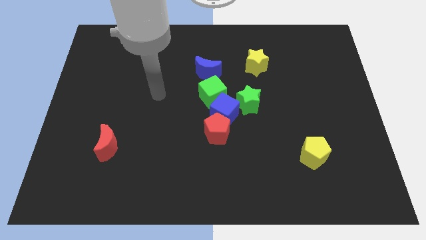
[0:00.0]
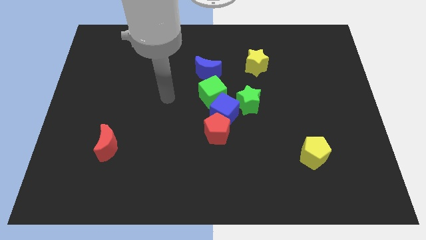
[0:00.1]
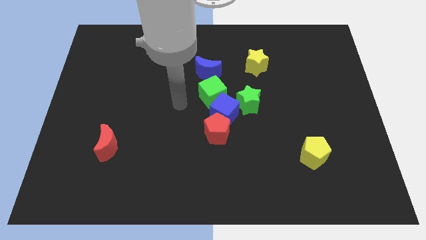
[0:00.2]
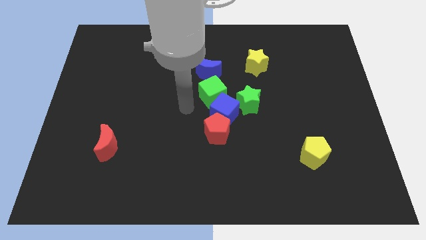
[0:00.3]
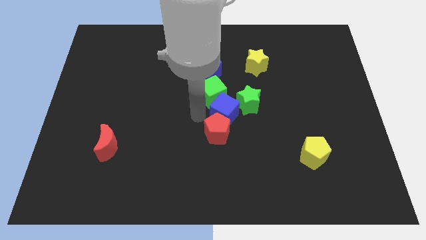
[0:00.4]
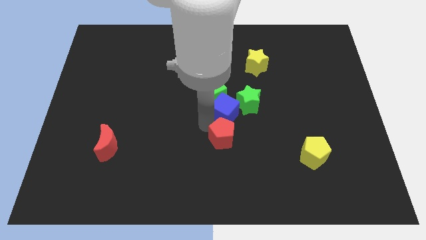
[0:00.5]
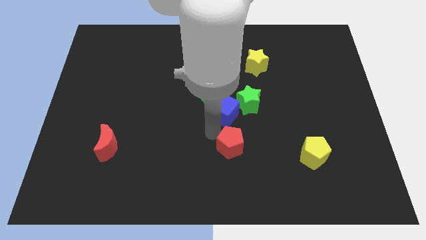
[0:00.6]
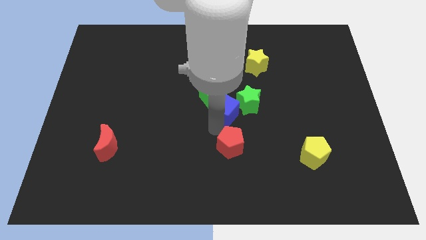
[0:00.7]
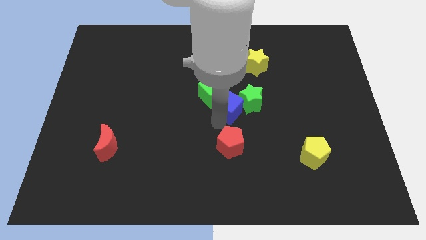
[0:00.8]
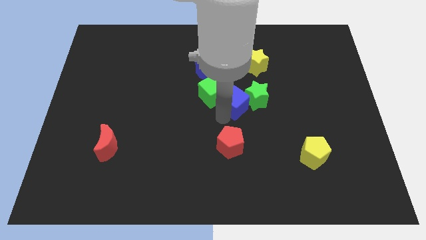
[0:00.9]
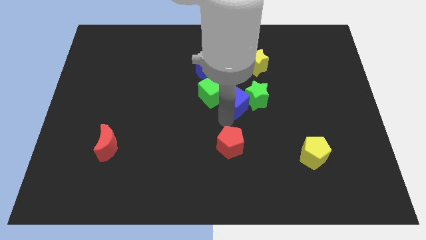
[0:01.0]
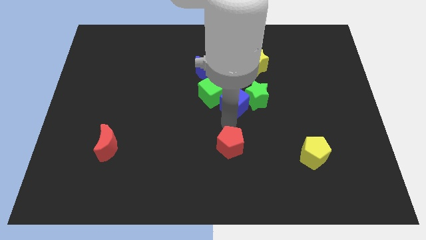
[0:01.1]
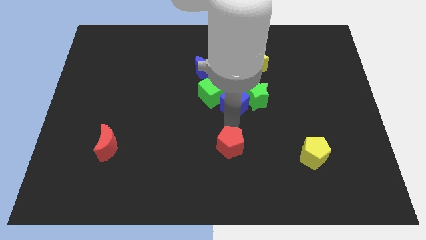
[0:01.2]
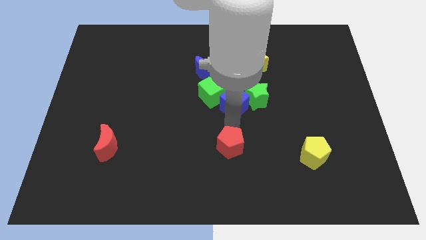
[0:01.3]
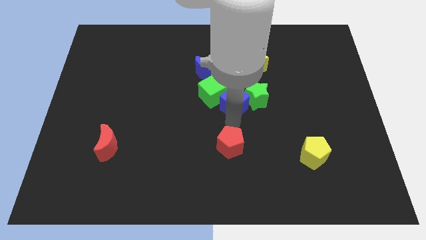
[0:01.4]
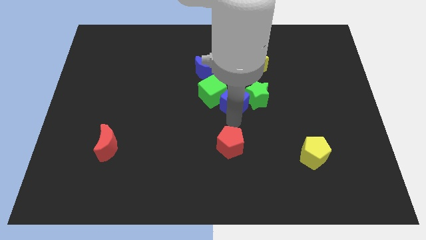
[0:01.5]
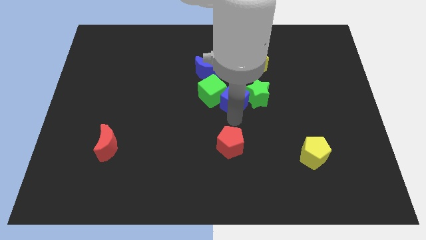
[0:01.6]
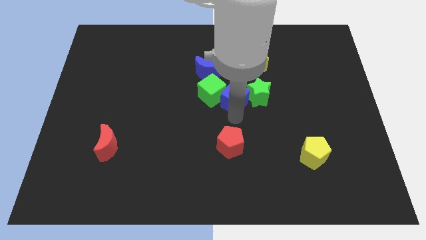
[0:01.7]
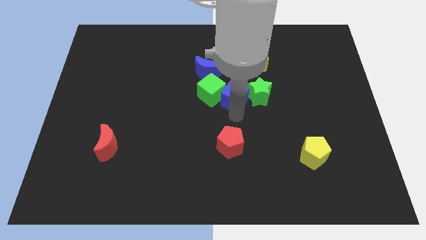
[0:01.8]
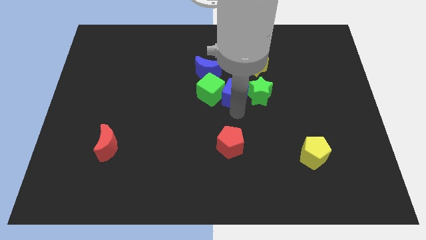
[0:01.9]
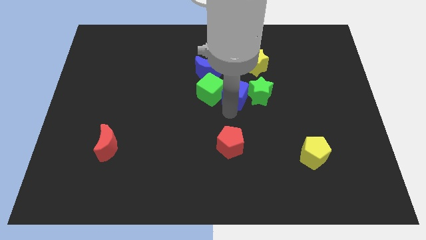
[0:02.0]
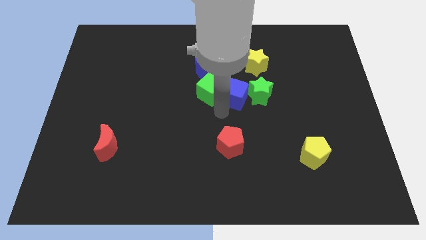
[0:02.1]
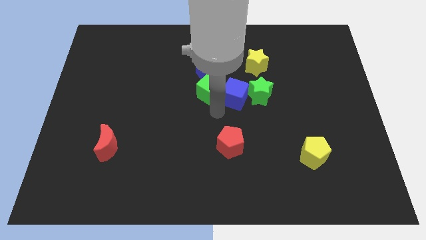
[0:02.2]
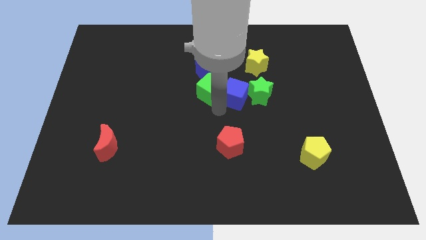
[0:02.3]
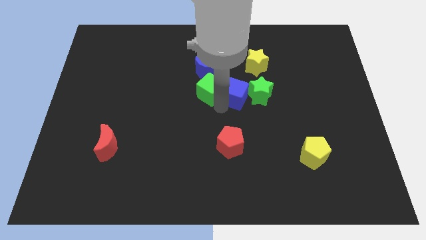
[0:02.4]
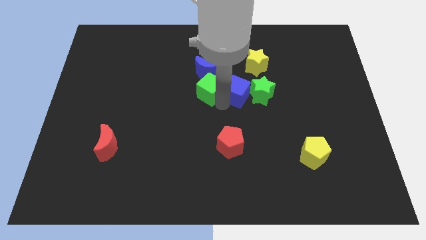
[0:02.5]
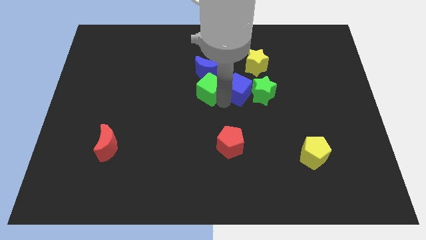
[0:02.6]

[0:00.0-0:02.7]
push the blue cube up and to the right diagonally somewhat

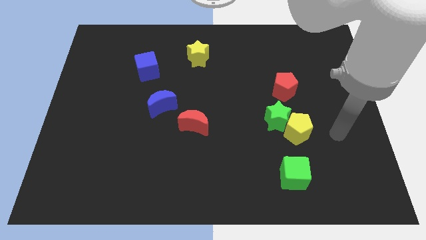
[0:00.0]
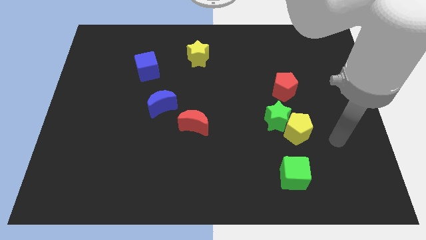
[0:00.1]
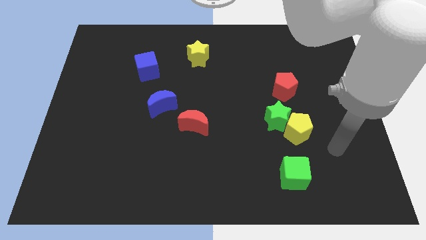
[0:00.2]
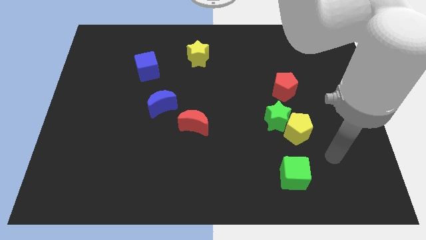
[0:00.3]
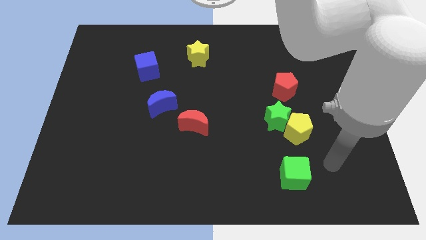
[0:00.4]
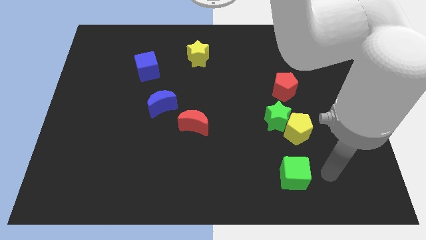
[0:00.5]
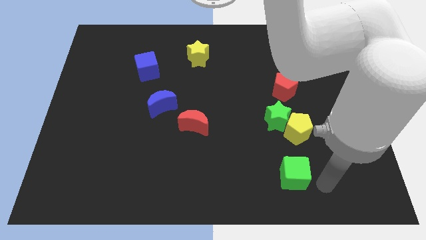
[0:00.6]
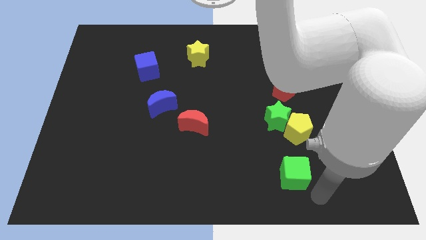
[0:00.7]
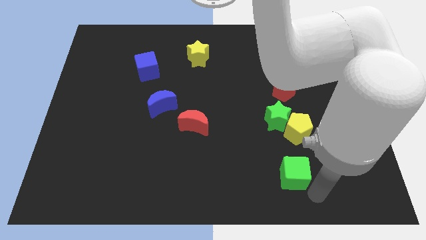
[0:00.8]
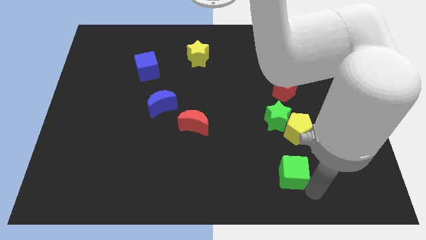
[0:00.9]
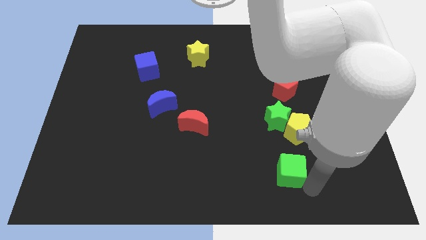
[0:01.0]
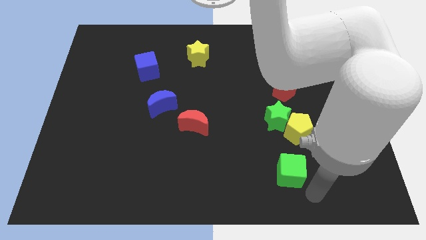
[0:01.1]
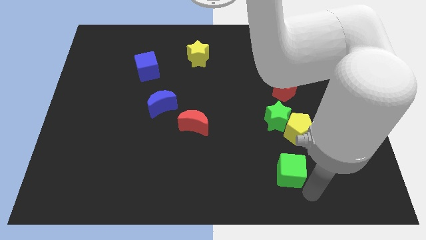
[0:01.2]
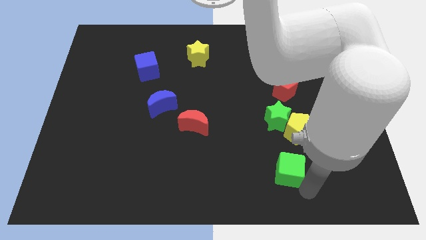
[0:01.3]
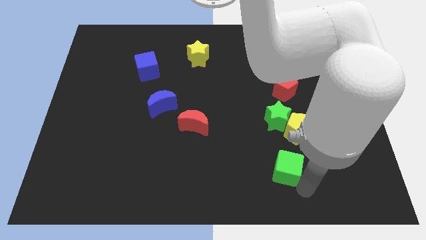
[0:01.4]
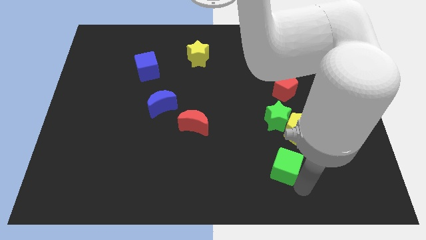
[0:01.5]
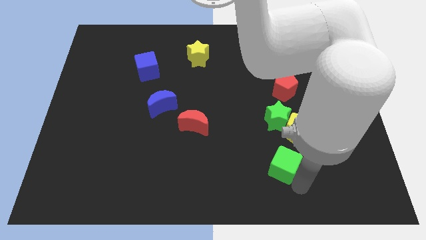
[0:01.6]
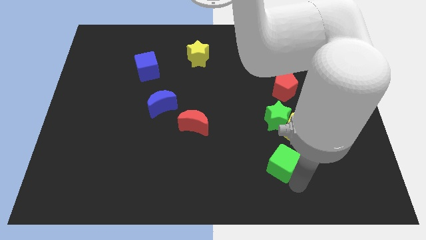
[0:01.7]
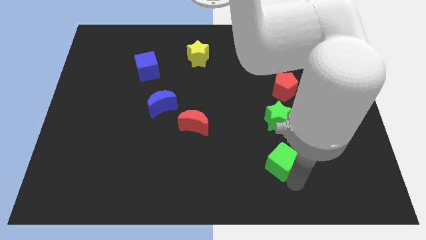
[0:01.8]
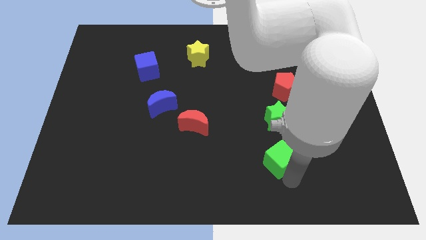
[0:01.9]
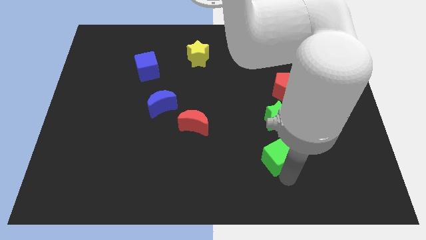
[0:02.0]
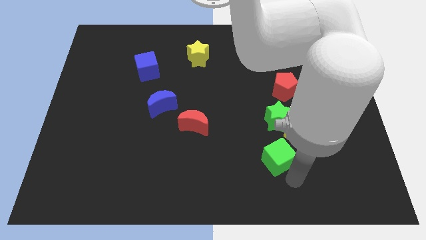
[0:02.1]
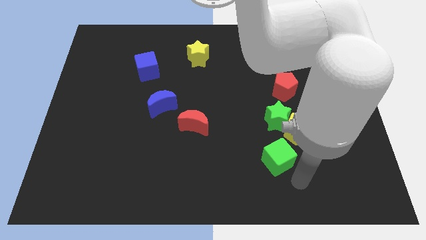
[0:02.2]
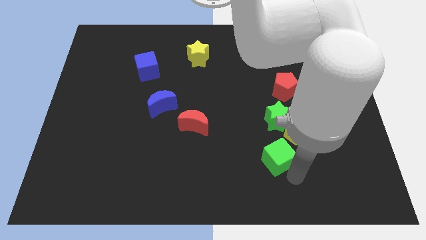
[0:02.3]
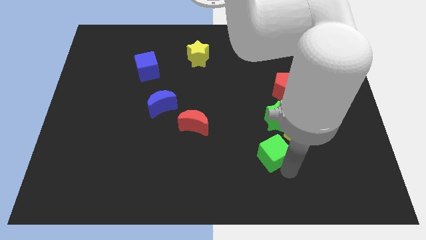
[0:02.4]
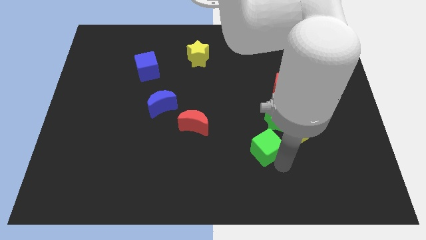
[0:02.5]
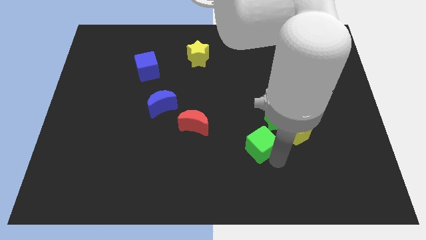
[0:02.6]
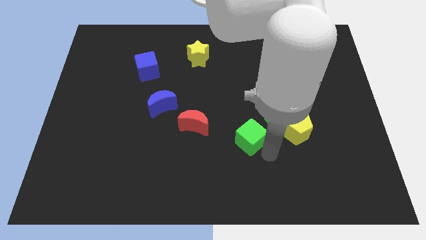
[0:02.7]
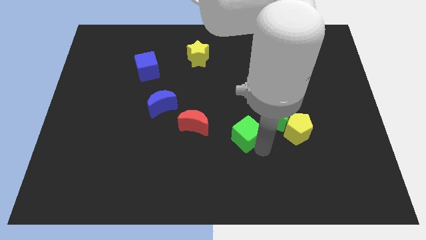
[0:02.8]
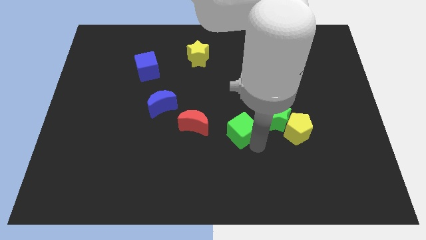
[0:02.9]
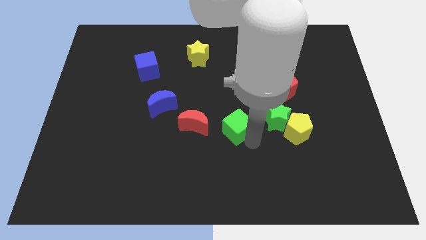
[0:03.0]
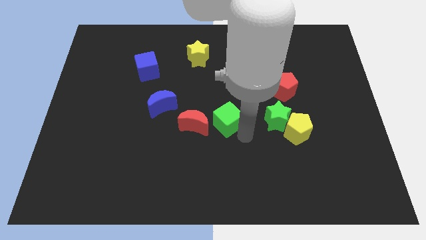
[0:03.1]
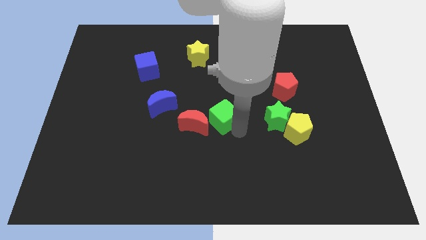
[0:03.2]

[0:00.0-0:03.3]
slide the green cube up and to the left diagonally

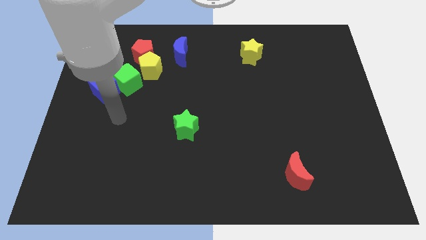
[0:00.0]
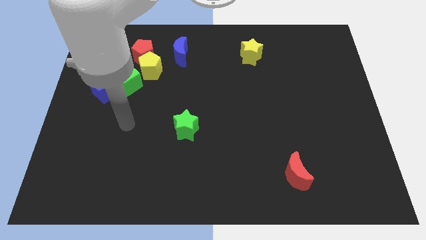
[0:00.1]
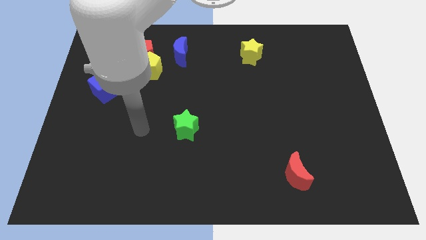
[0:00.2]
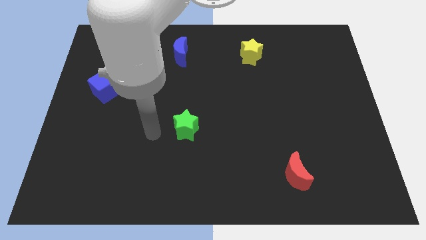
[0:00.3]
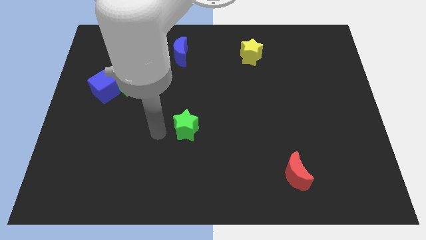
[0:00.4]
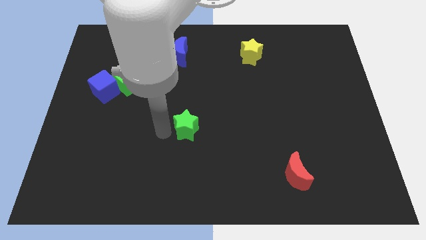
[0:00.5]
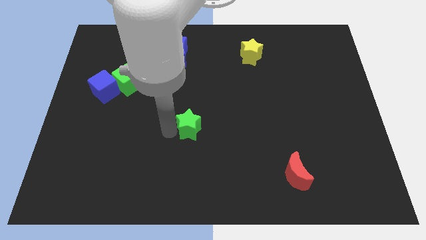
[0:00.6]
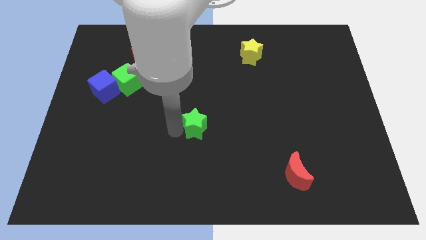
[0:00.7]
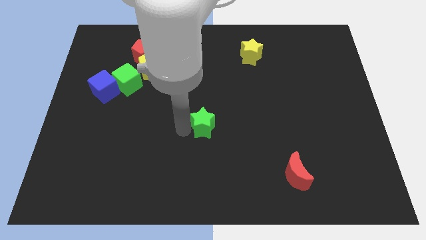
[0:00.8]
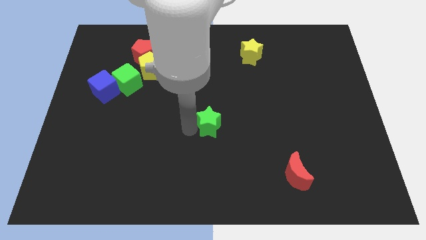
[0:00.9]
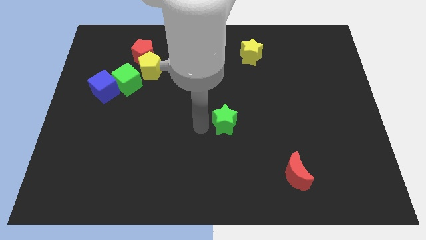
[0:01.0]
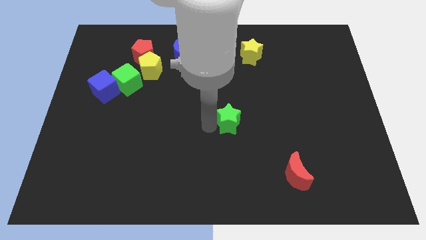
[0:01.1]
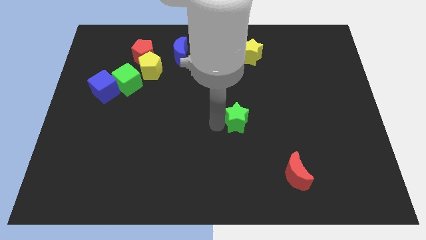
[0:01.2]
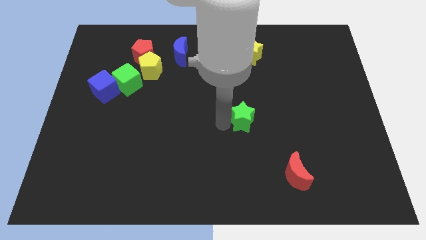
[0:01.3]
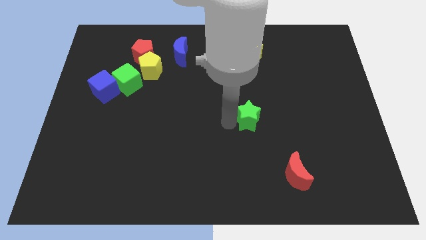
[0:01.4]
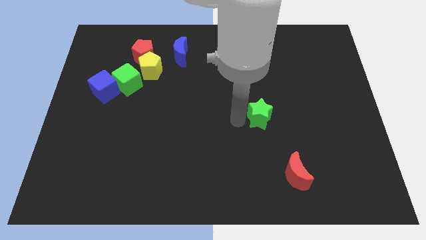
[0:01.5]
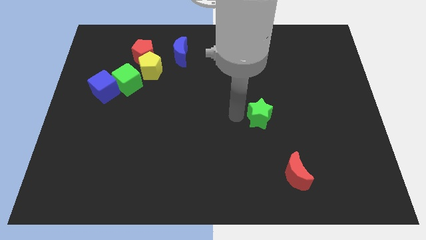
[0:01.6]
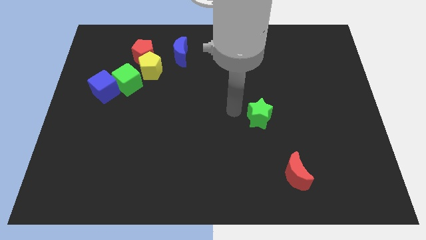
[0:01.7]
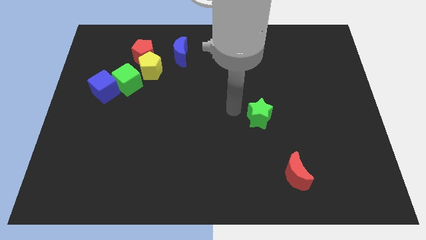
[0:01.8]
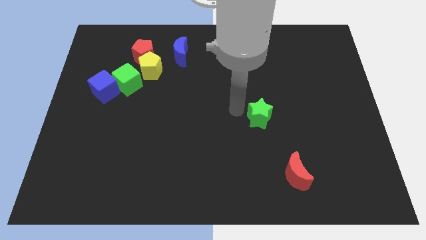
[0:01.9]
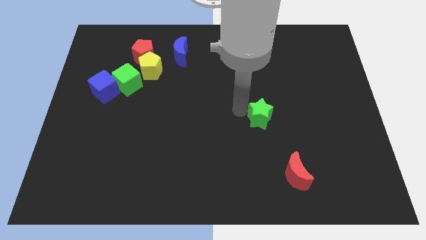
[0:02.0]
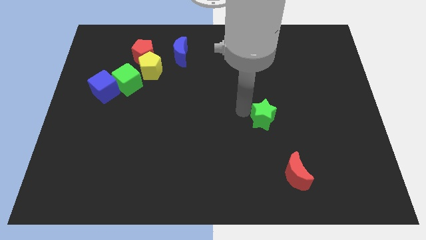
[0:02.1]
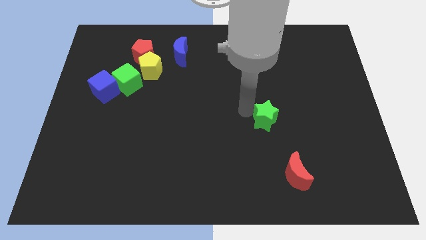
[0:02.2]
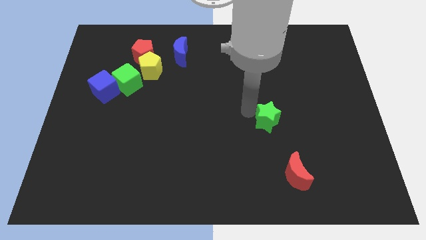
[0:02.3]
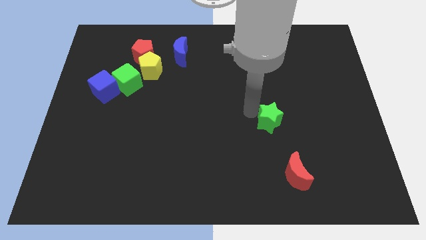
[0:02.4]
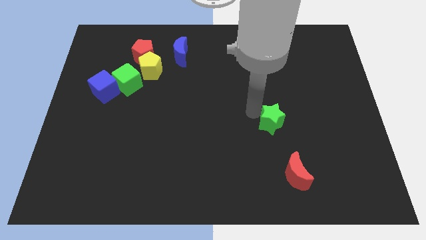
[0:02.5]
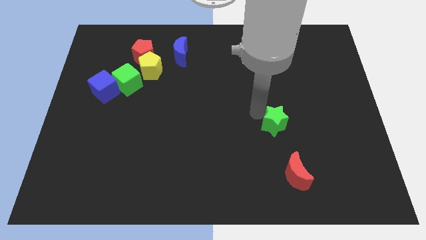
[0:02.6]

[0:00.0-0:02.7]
move the green star right
